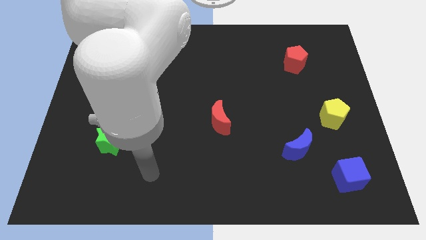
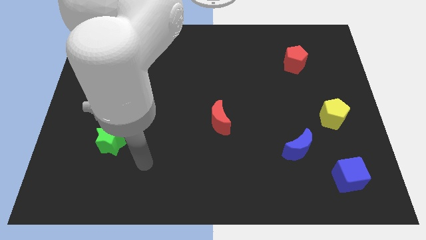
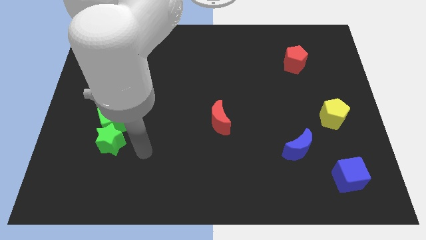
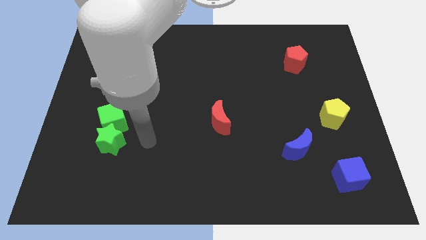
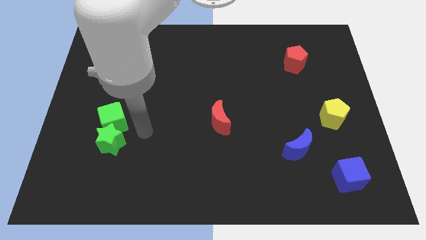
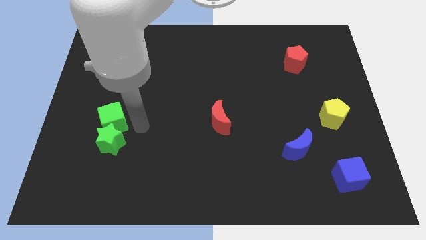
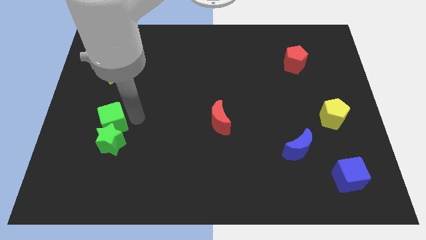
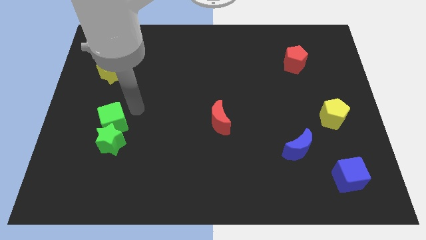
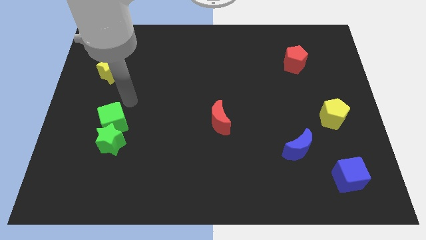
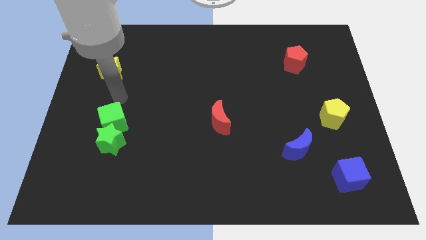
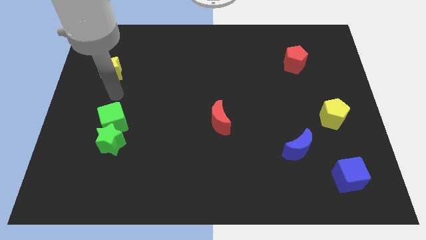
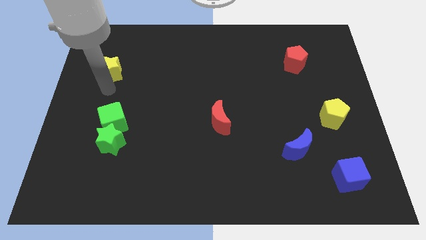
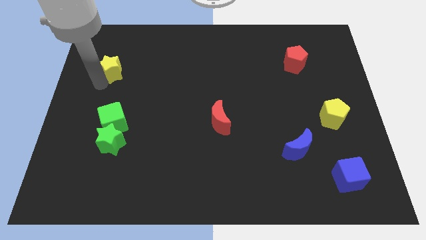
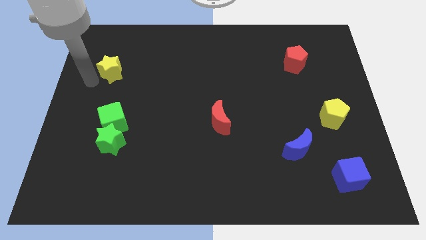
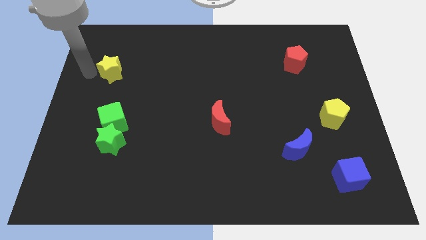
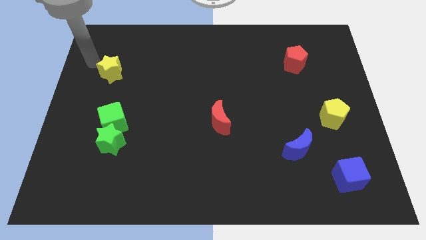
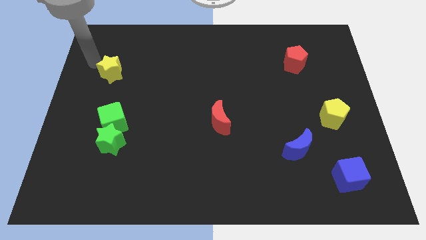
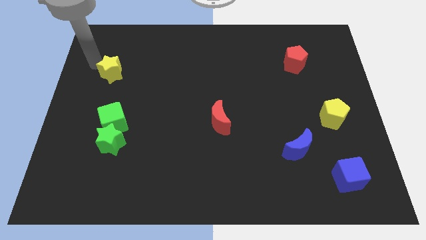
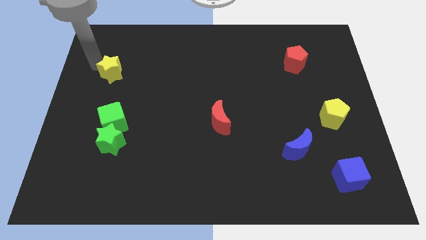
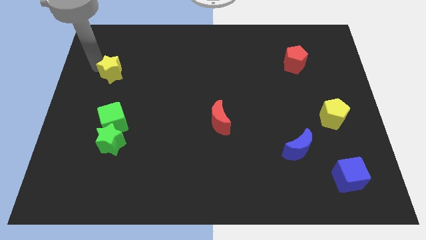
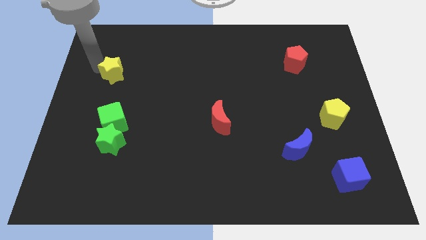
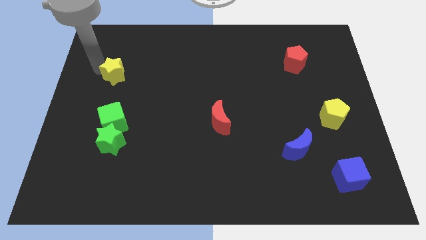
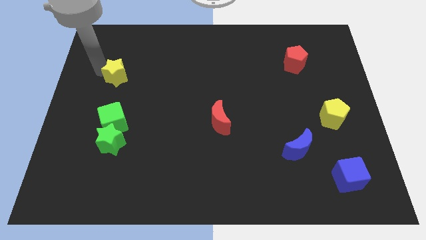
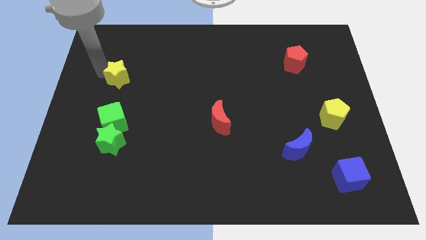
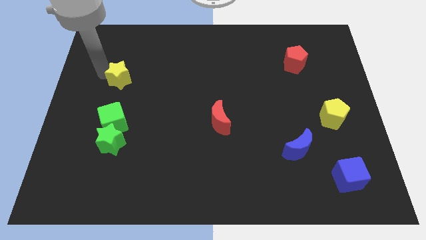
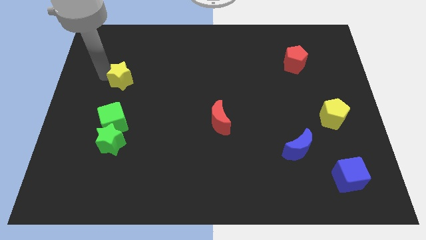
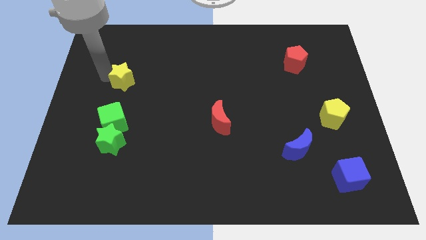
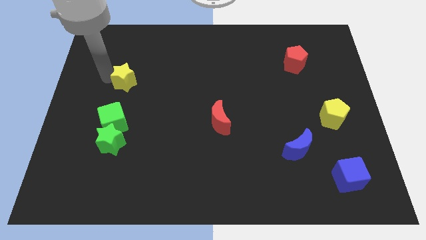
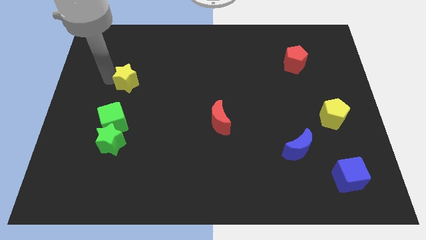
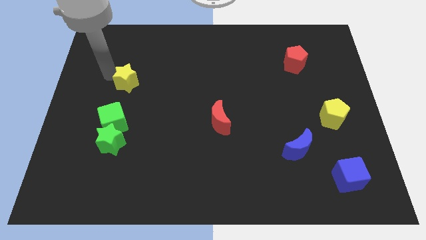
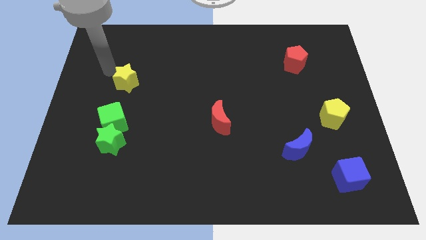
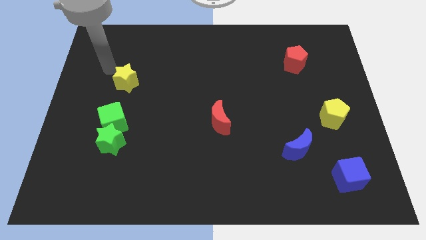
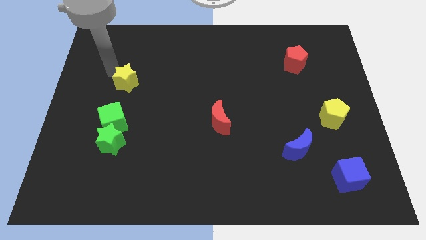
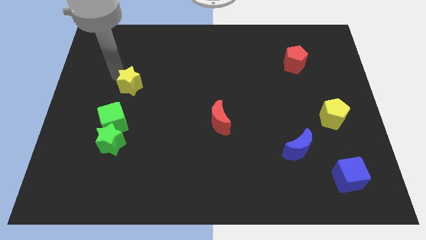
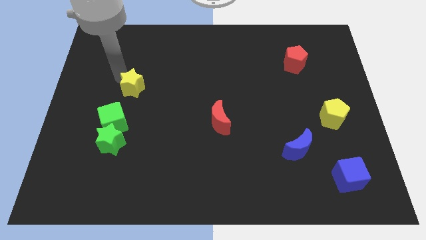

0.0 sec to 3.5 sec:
move the yellow star a little bit diagonally downwards and right

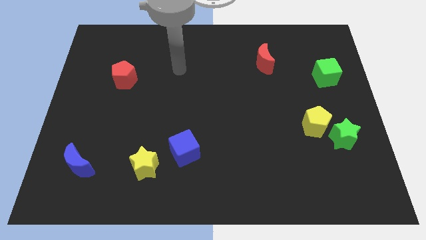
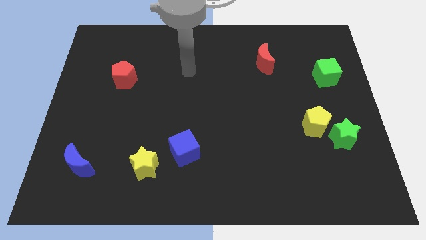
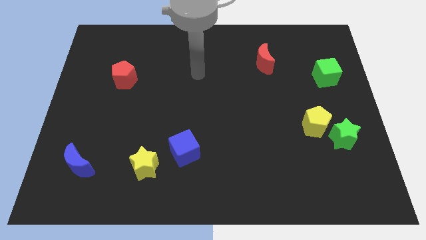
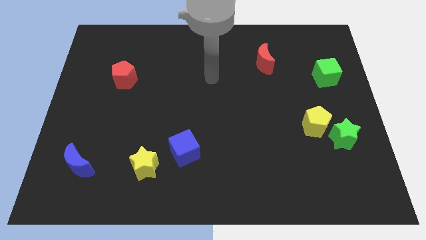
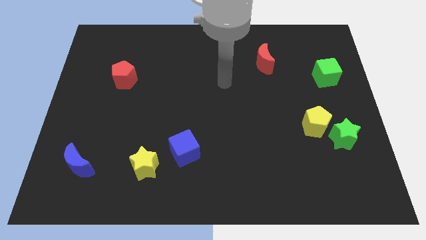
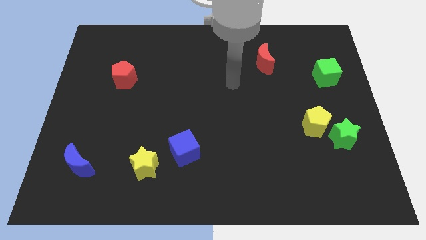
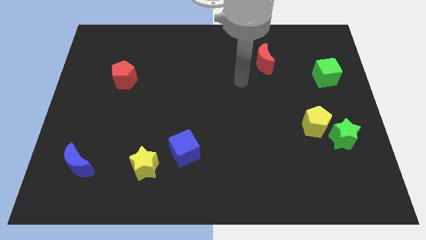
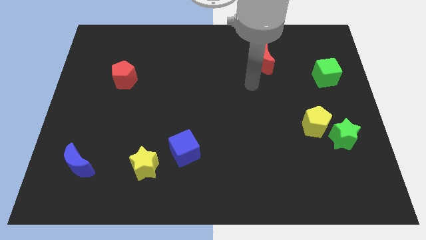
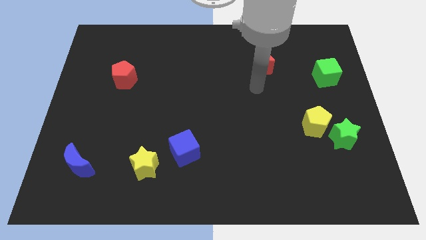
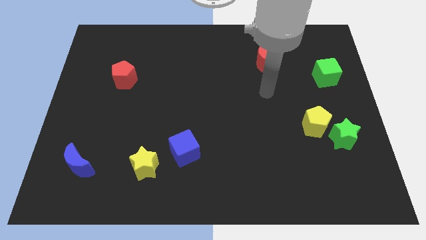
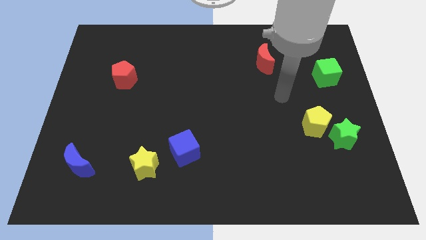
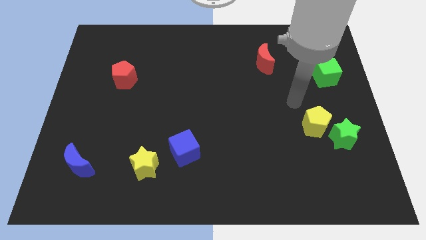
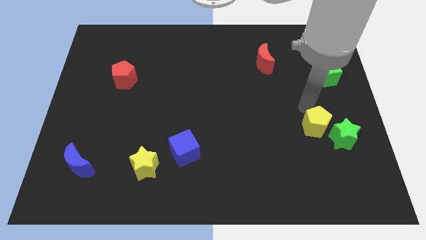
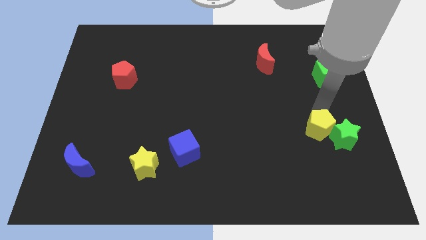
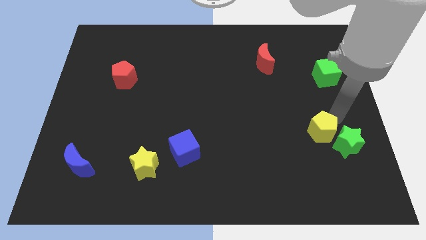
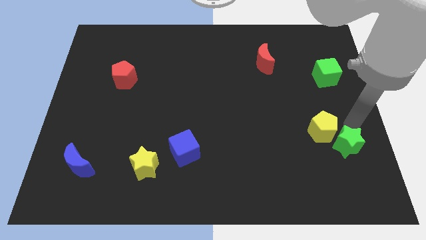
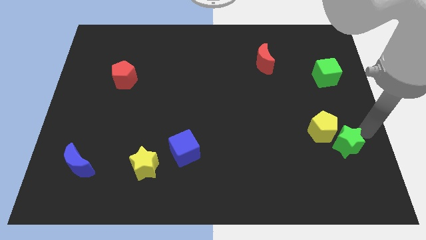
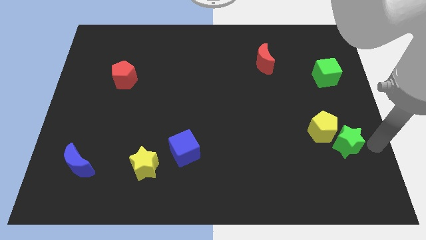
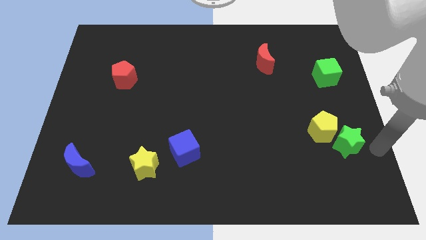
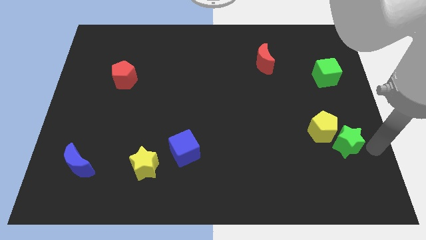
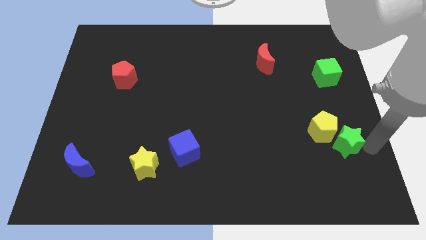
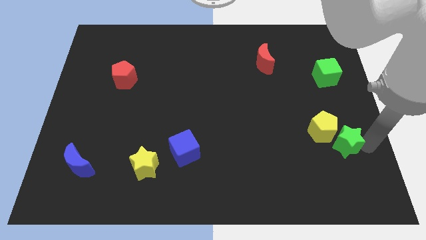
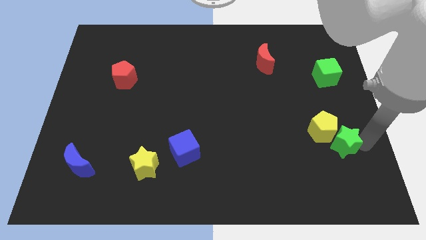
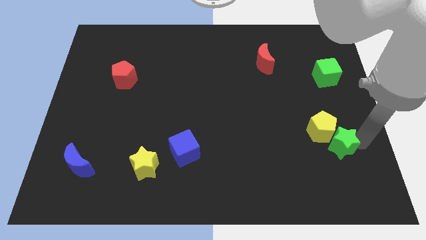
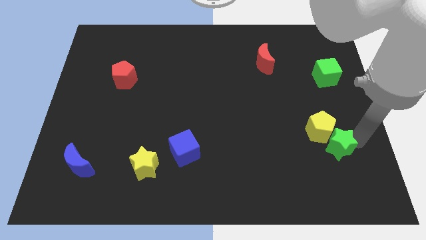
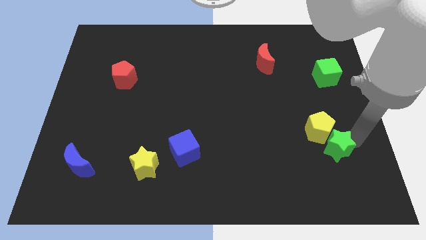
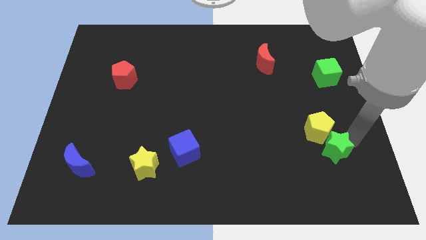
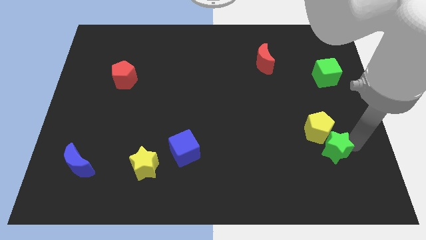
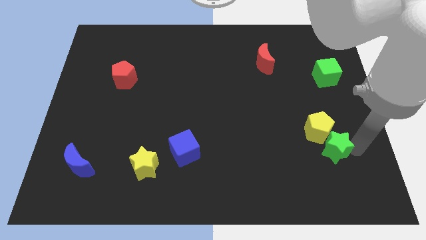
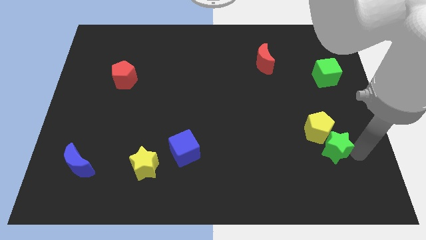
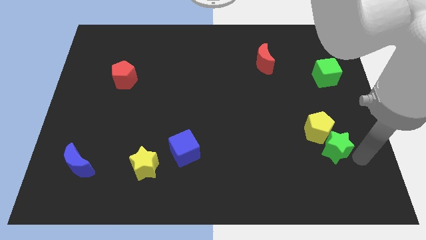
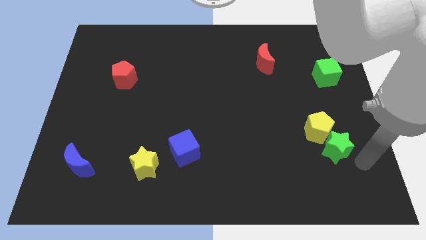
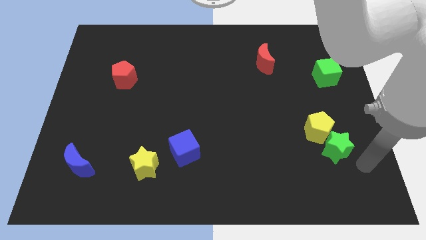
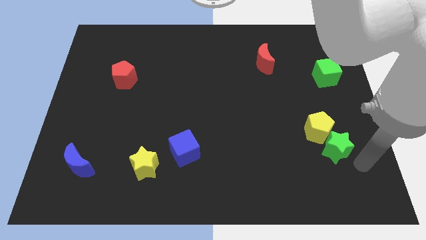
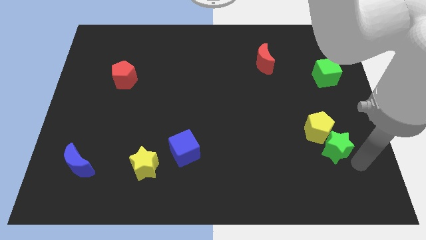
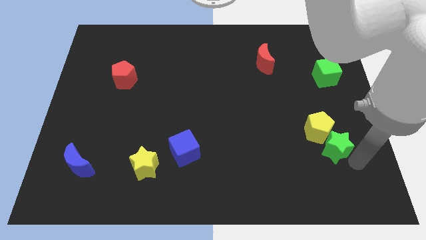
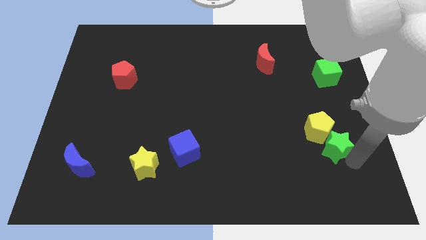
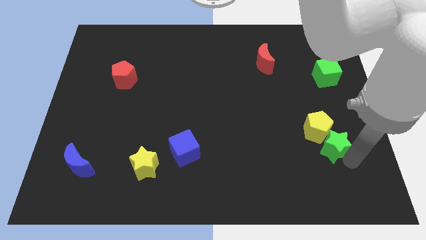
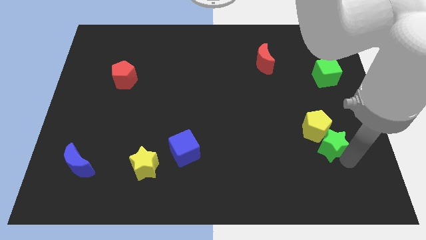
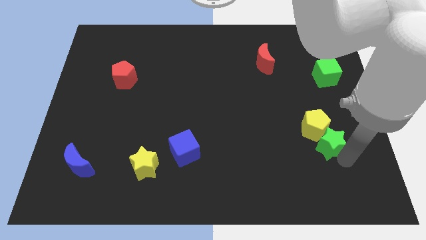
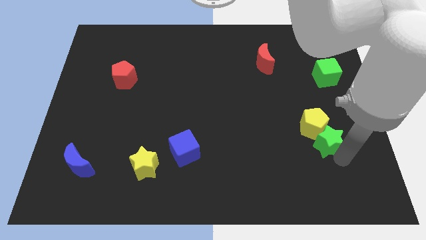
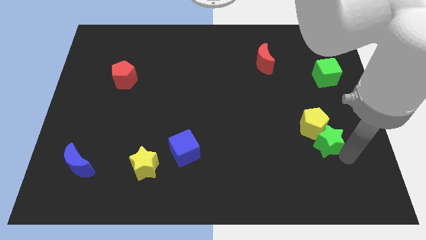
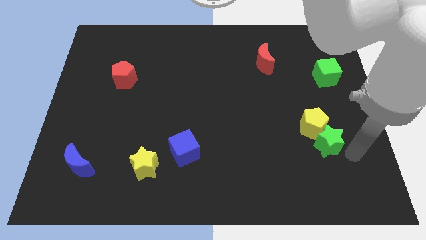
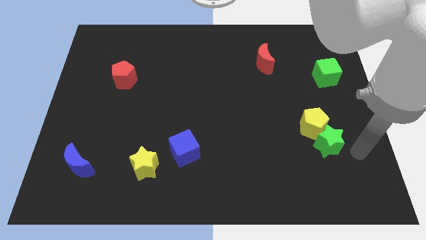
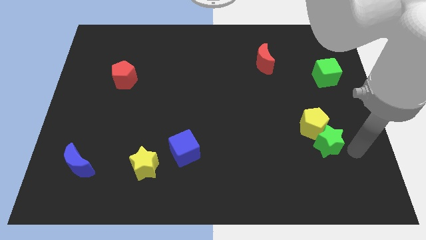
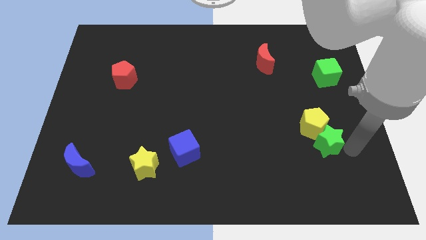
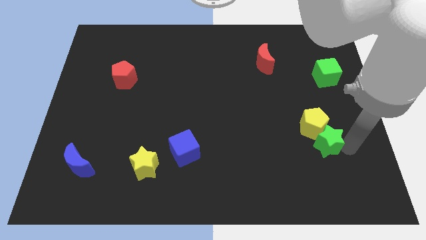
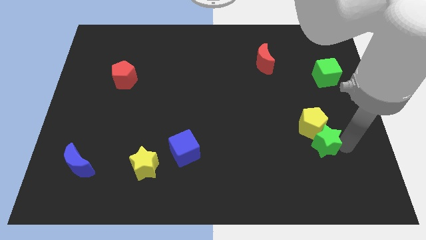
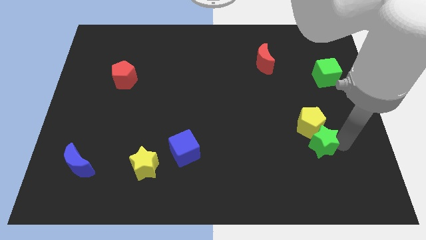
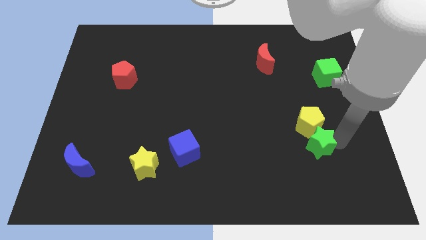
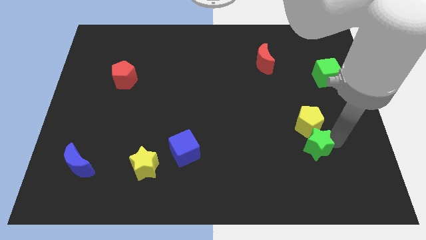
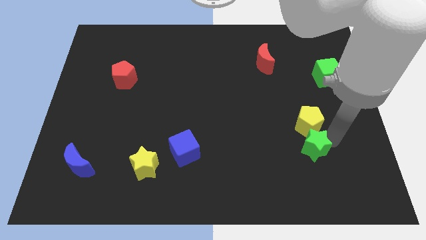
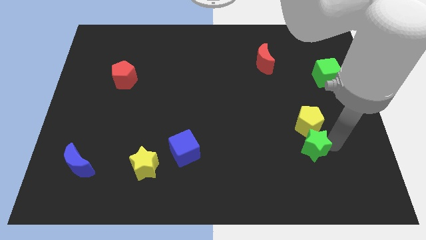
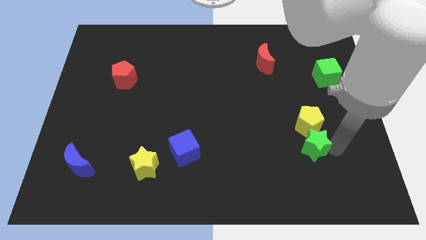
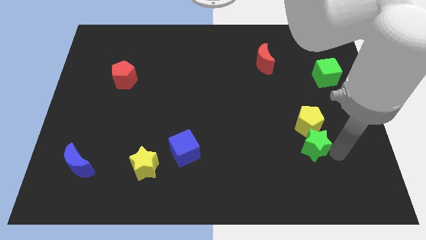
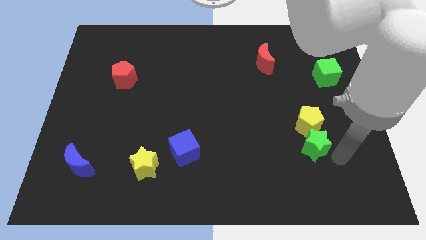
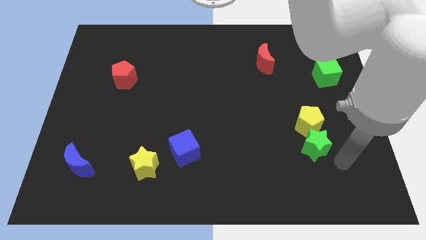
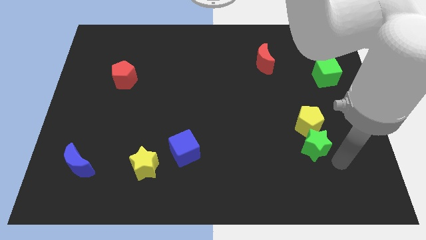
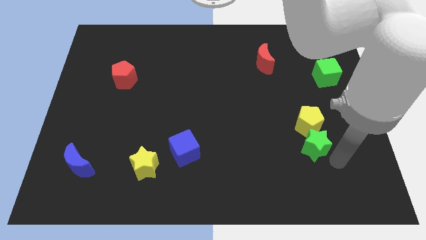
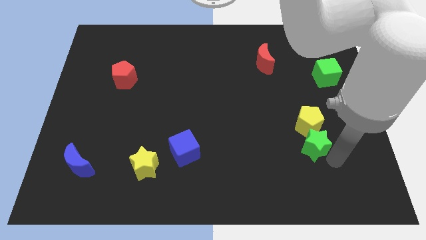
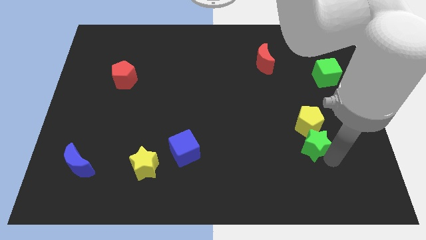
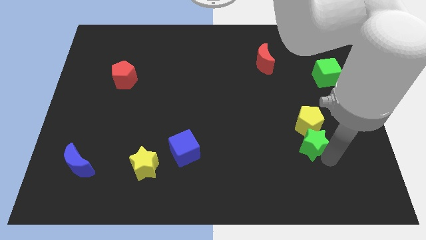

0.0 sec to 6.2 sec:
slide the green star somewhat to the left
